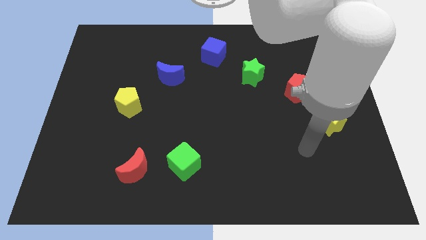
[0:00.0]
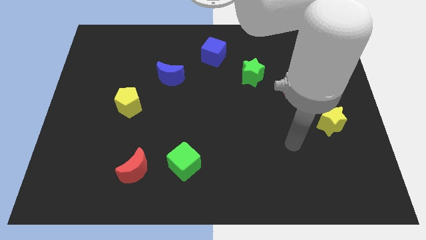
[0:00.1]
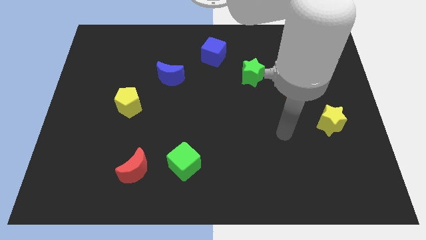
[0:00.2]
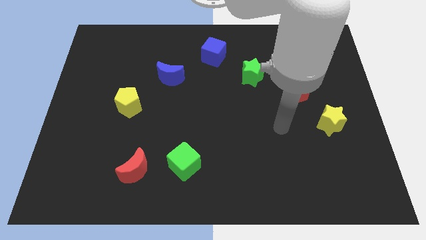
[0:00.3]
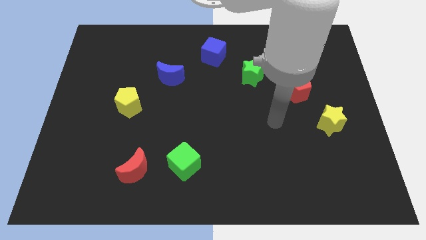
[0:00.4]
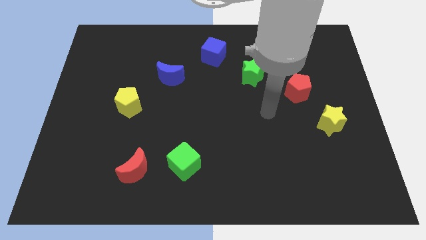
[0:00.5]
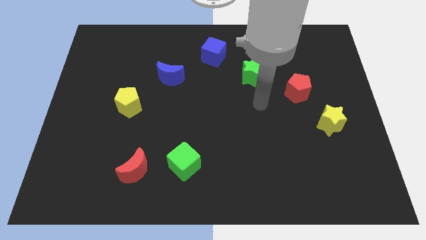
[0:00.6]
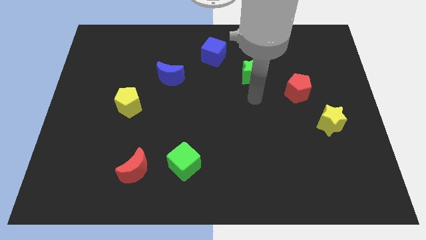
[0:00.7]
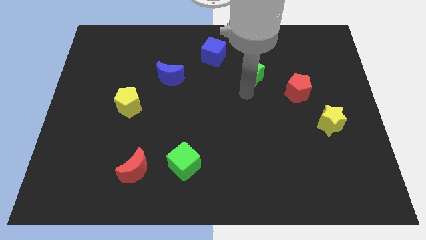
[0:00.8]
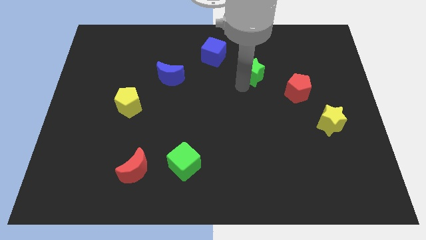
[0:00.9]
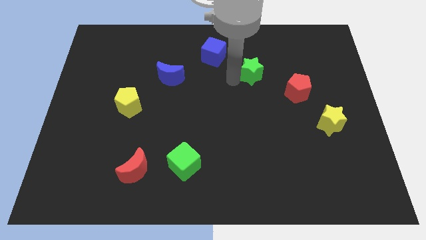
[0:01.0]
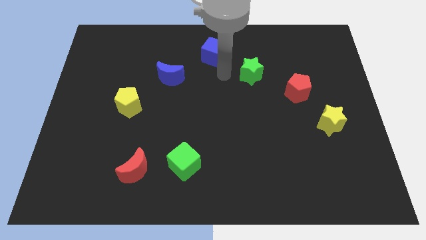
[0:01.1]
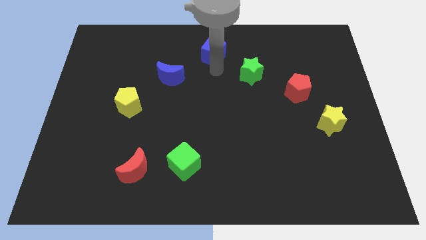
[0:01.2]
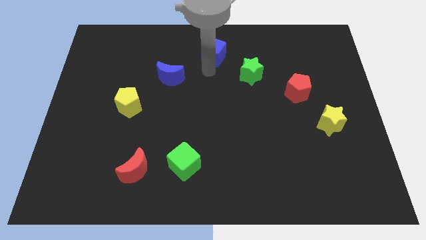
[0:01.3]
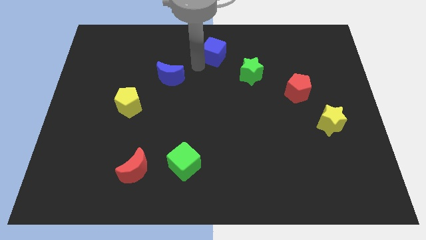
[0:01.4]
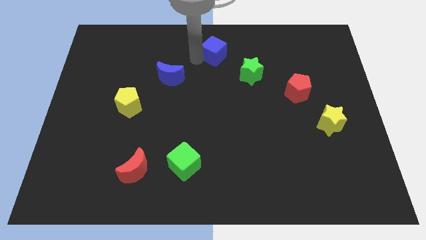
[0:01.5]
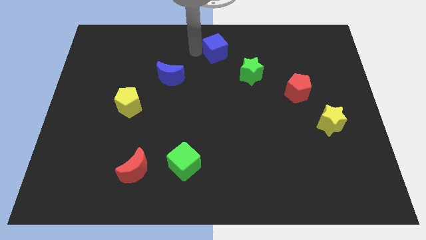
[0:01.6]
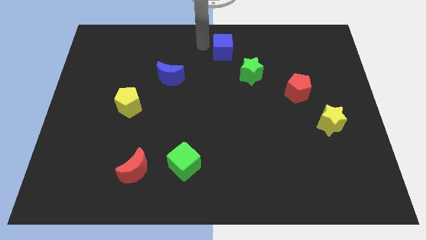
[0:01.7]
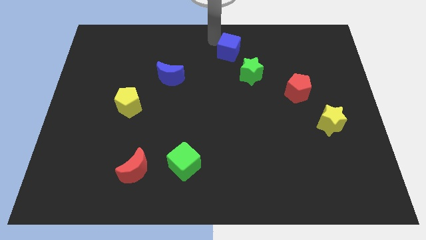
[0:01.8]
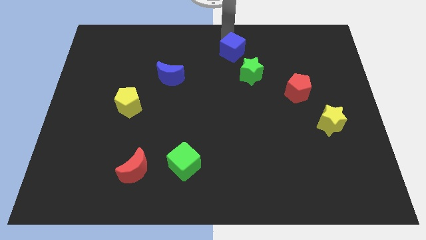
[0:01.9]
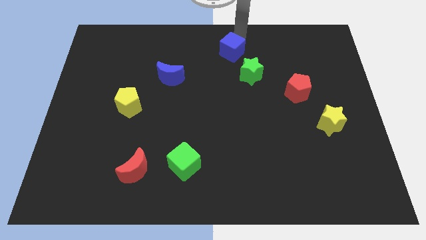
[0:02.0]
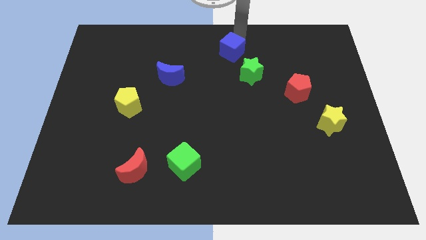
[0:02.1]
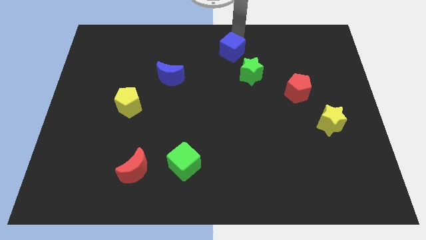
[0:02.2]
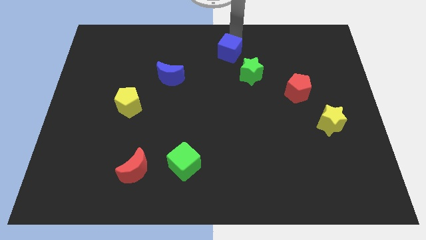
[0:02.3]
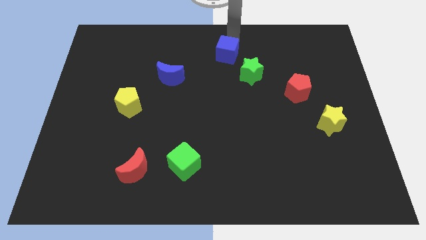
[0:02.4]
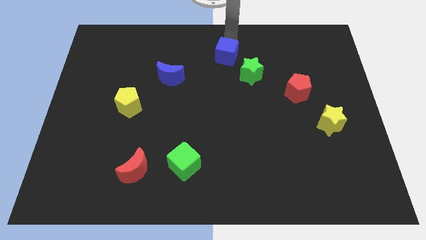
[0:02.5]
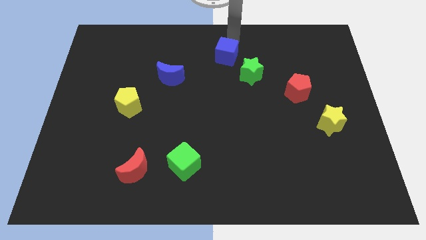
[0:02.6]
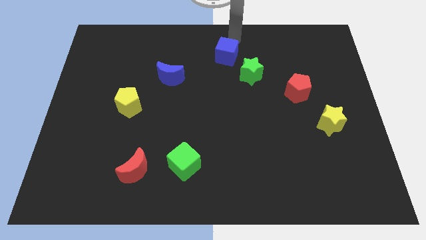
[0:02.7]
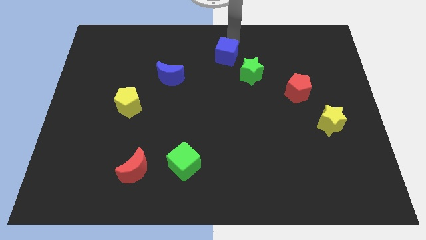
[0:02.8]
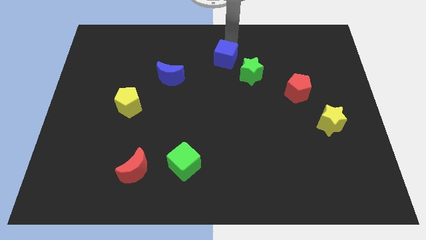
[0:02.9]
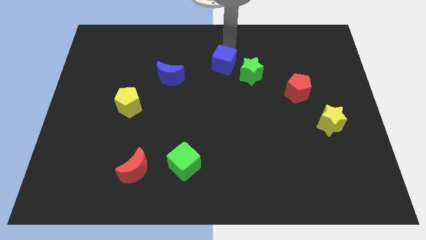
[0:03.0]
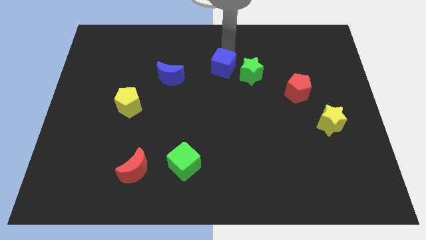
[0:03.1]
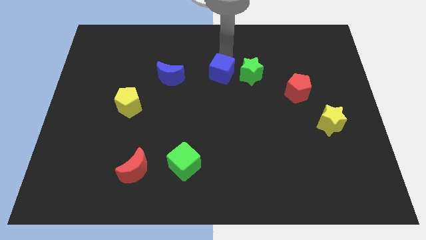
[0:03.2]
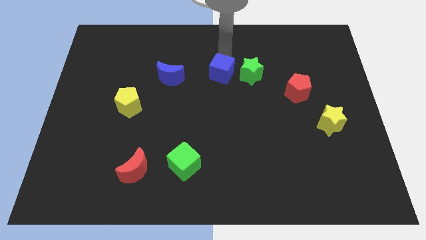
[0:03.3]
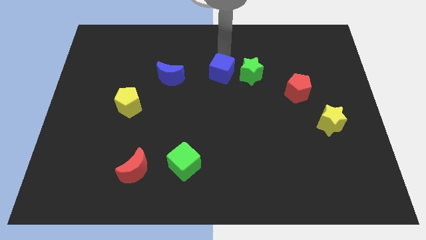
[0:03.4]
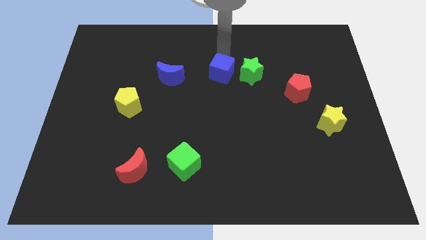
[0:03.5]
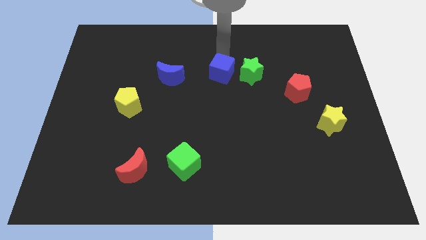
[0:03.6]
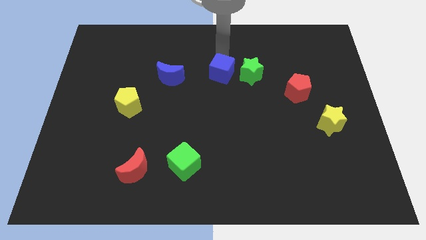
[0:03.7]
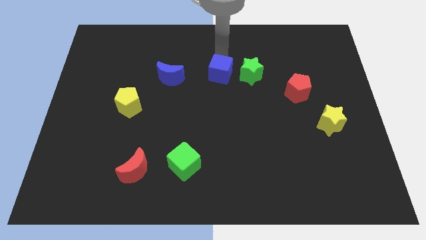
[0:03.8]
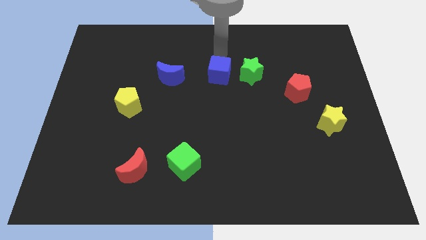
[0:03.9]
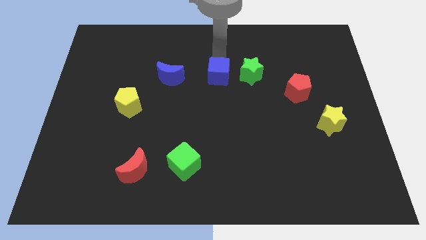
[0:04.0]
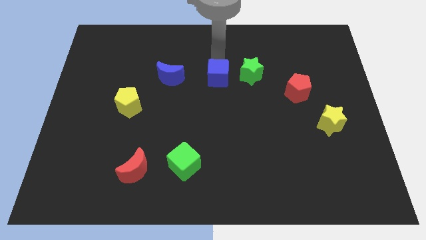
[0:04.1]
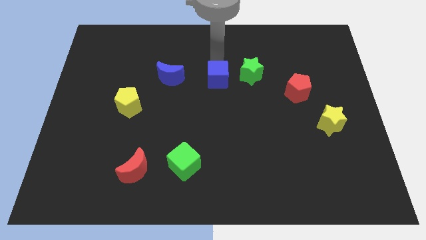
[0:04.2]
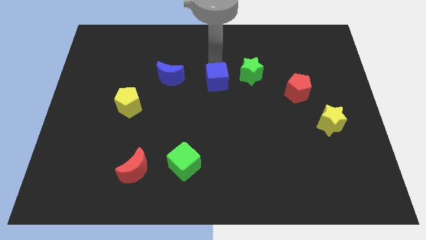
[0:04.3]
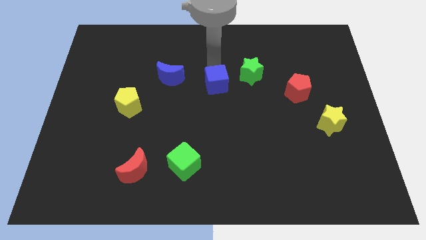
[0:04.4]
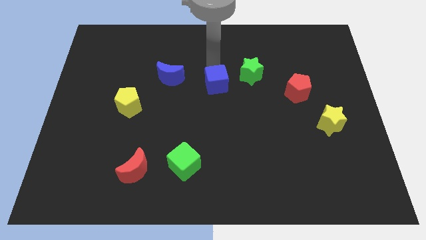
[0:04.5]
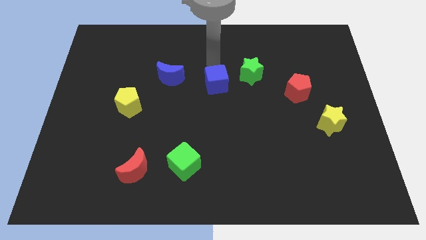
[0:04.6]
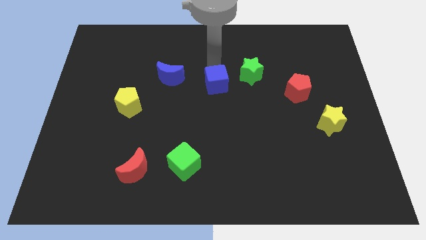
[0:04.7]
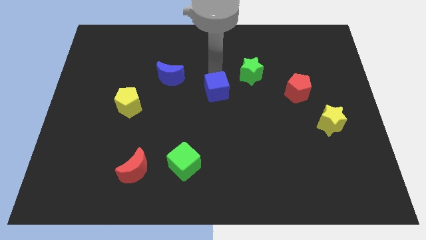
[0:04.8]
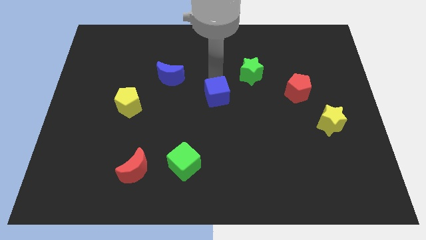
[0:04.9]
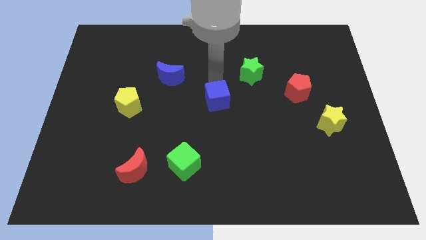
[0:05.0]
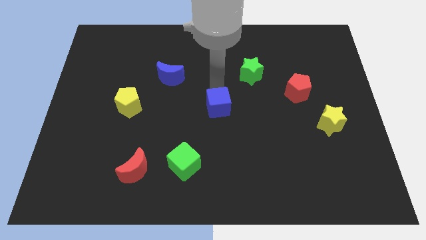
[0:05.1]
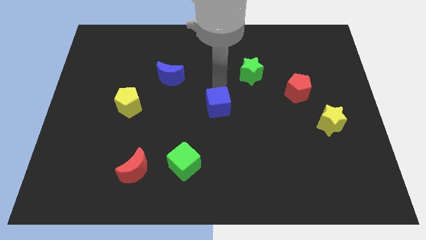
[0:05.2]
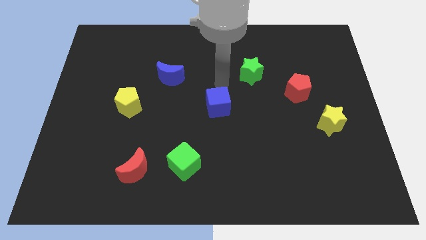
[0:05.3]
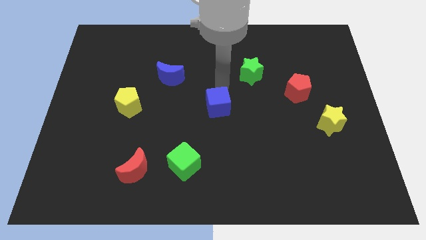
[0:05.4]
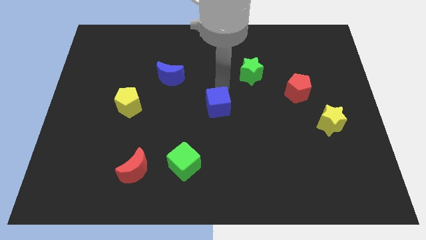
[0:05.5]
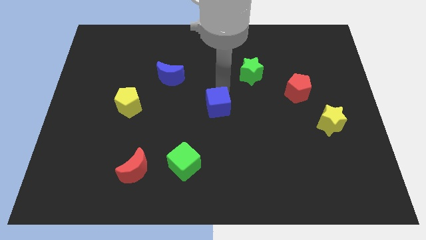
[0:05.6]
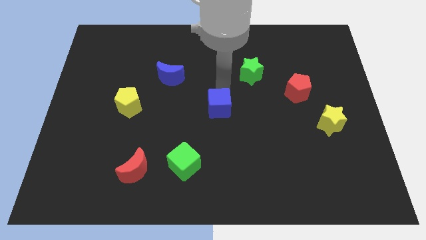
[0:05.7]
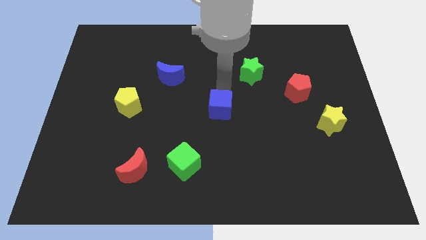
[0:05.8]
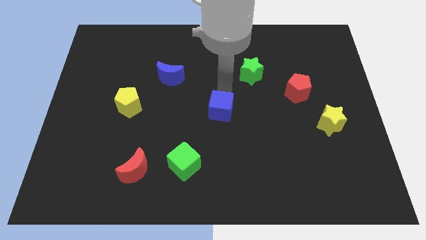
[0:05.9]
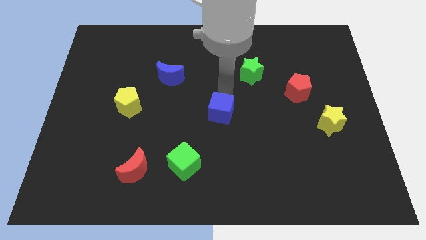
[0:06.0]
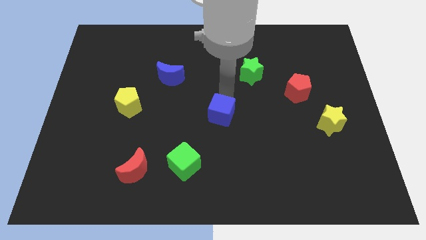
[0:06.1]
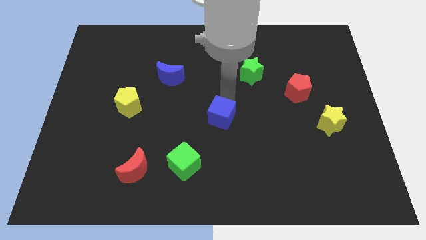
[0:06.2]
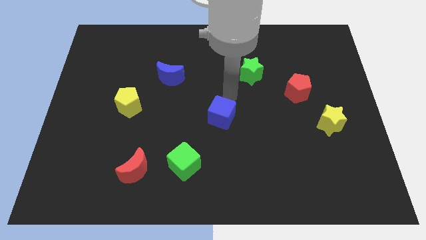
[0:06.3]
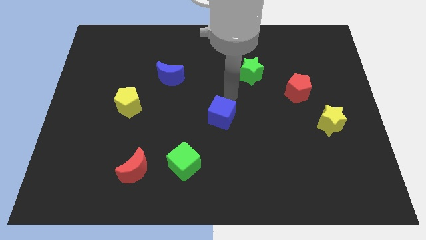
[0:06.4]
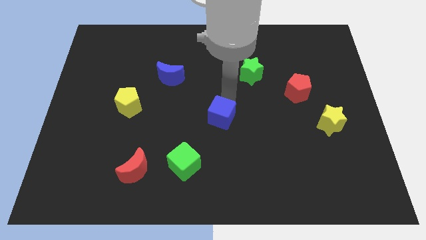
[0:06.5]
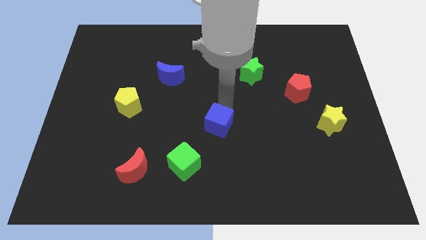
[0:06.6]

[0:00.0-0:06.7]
move the blue cube to the top right side of the green cube
